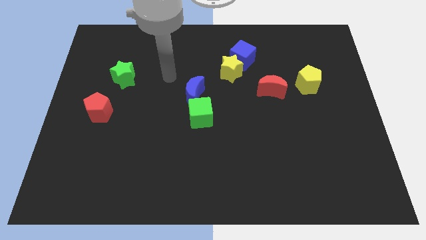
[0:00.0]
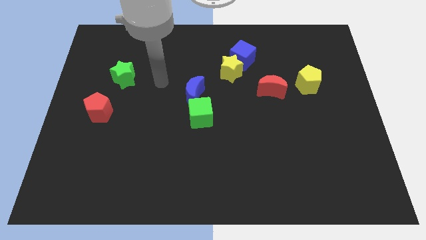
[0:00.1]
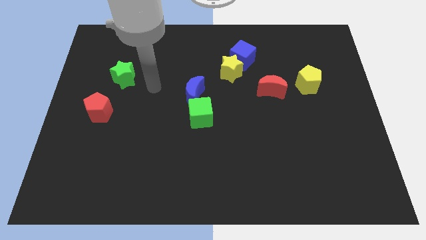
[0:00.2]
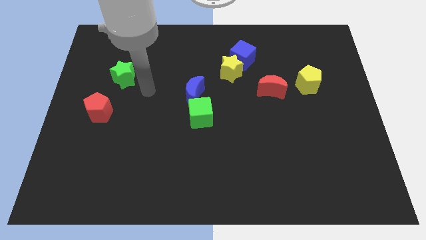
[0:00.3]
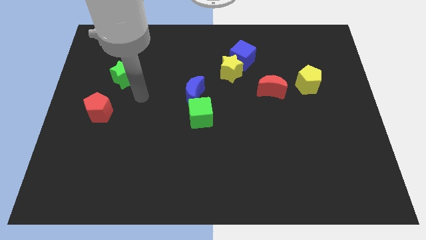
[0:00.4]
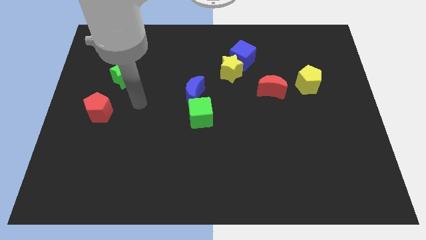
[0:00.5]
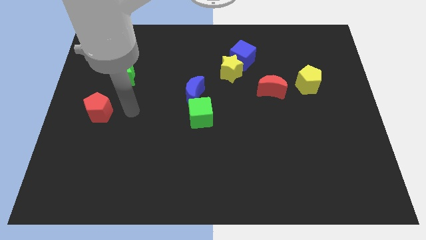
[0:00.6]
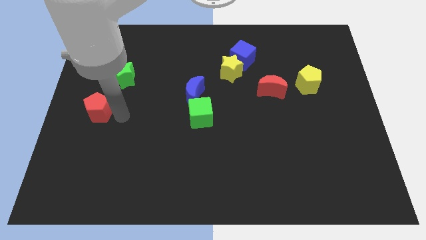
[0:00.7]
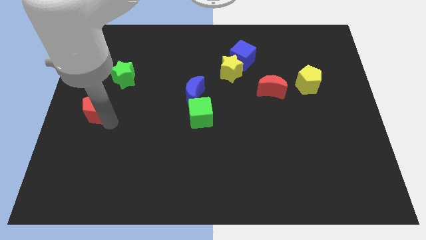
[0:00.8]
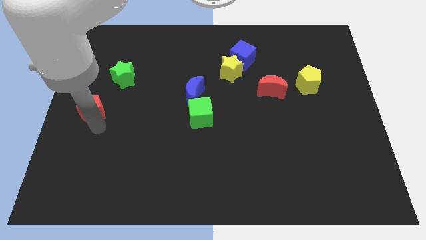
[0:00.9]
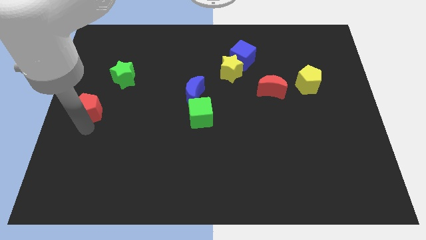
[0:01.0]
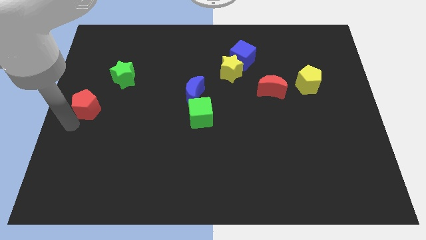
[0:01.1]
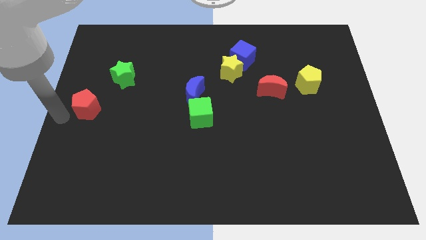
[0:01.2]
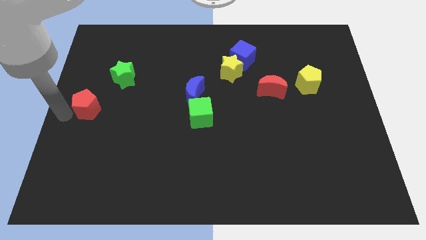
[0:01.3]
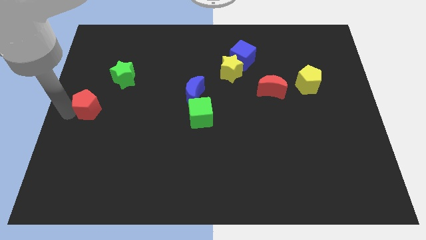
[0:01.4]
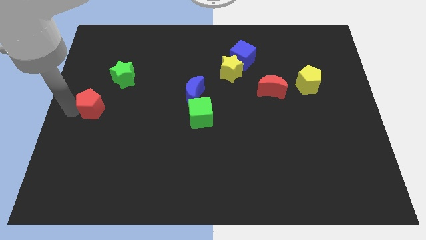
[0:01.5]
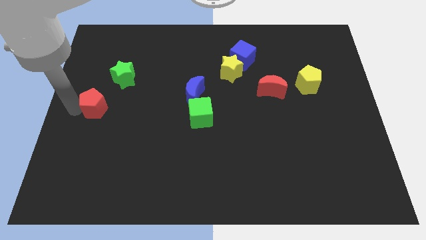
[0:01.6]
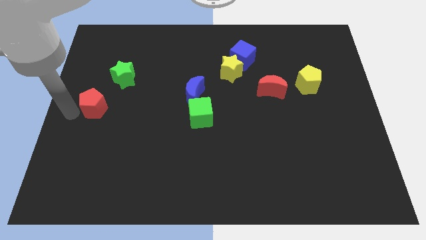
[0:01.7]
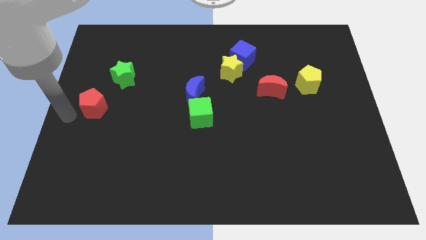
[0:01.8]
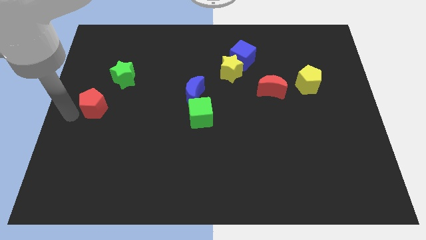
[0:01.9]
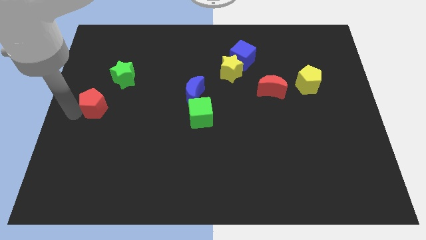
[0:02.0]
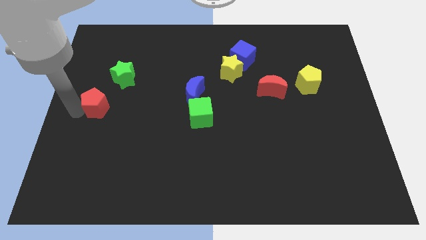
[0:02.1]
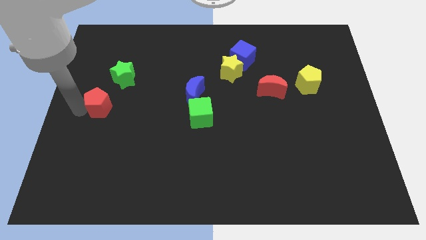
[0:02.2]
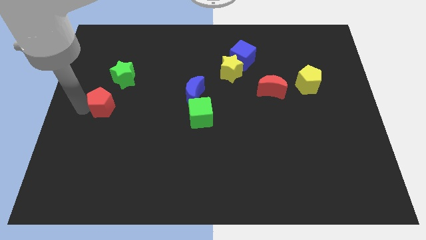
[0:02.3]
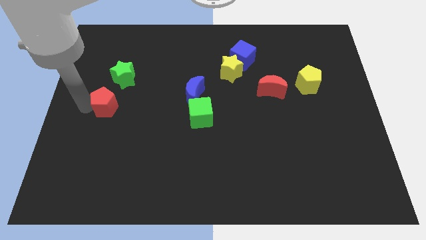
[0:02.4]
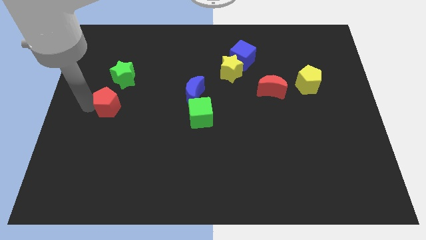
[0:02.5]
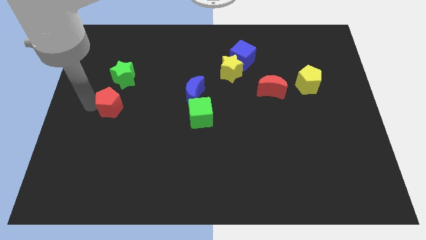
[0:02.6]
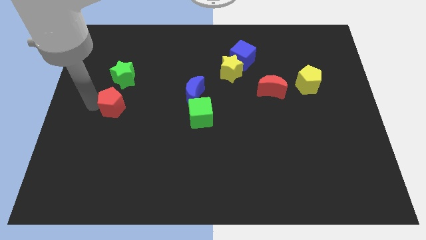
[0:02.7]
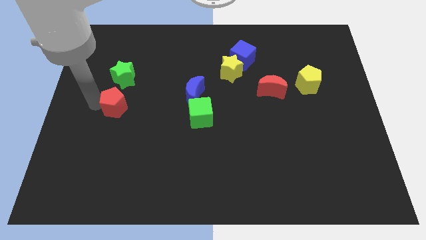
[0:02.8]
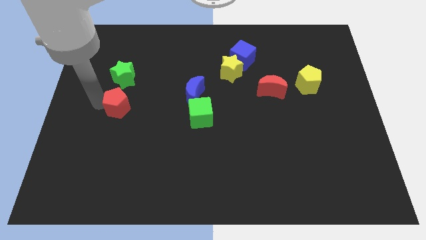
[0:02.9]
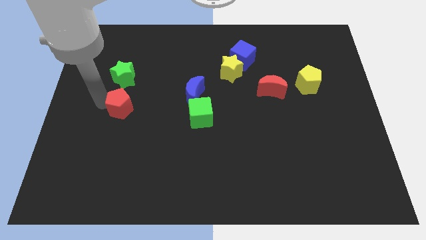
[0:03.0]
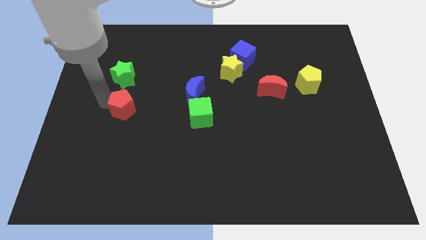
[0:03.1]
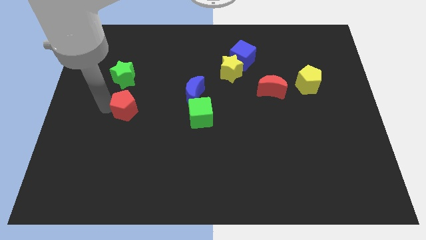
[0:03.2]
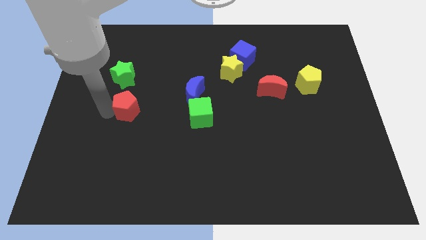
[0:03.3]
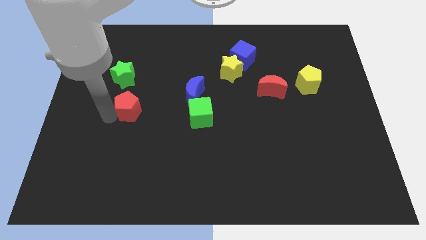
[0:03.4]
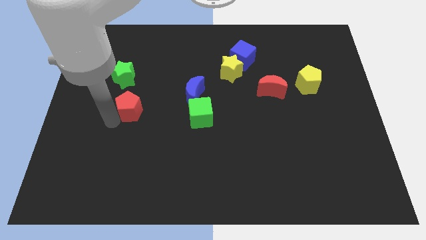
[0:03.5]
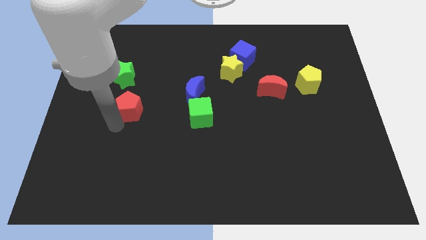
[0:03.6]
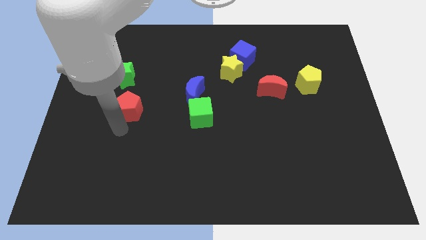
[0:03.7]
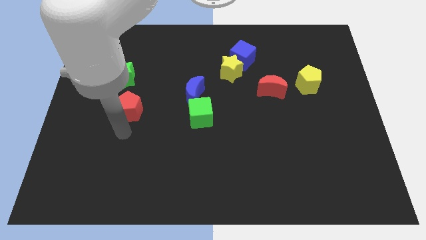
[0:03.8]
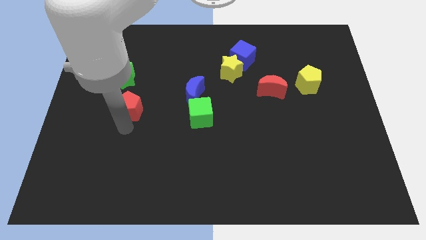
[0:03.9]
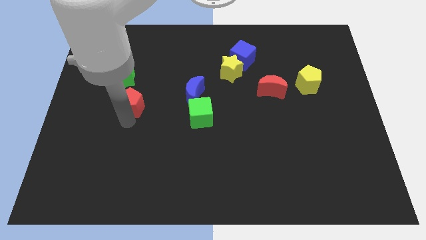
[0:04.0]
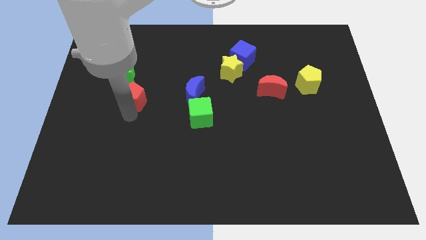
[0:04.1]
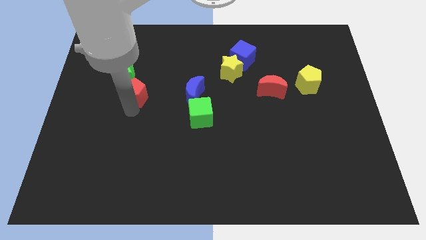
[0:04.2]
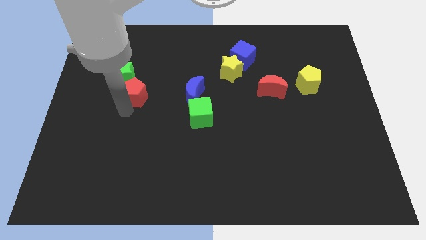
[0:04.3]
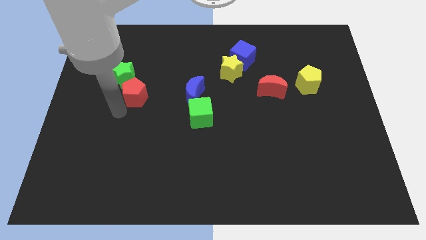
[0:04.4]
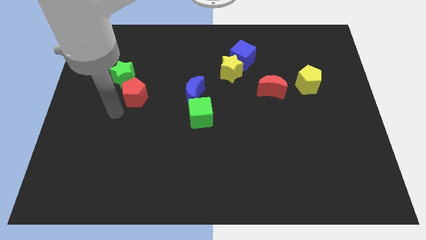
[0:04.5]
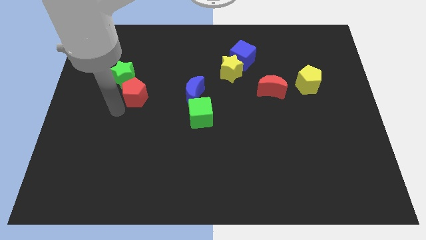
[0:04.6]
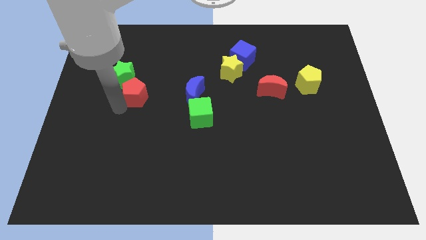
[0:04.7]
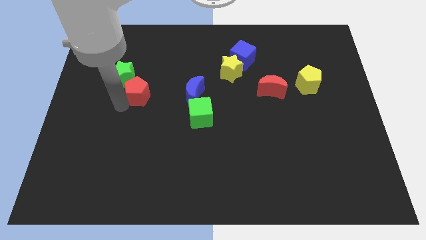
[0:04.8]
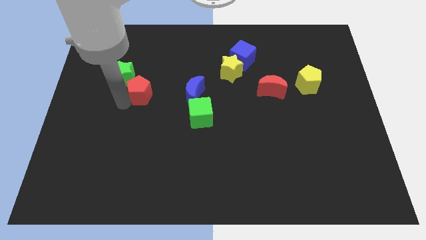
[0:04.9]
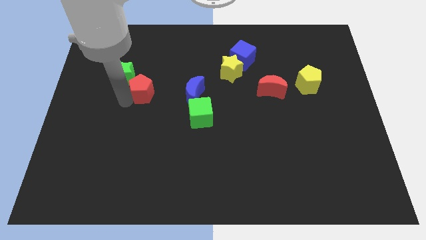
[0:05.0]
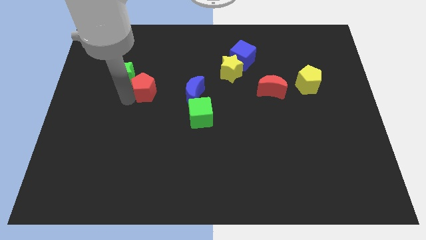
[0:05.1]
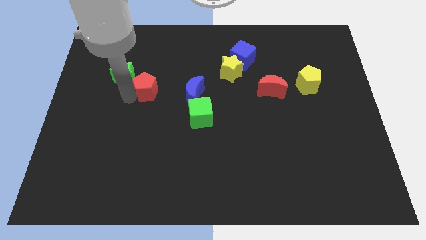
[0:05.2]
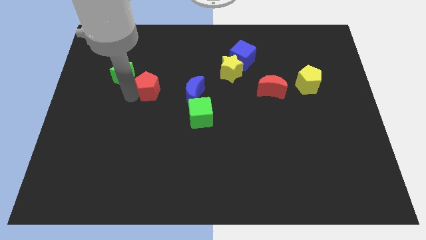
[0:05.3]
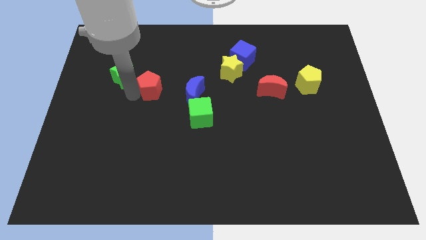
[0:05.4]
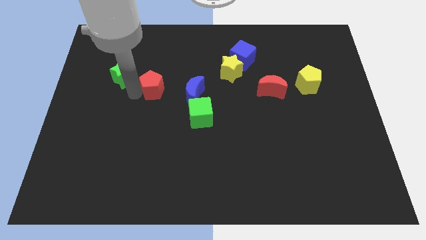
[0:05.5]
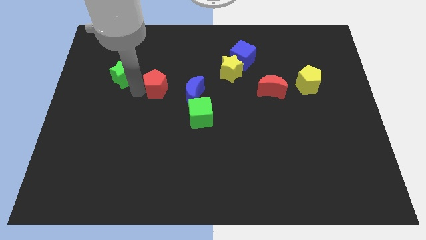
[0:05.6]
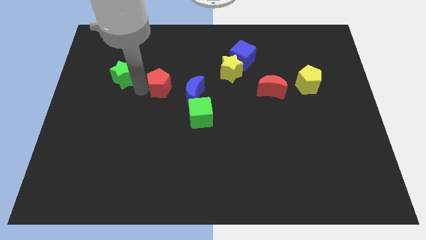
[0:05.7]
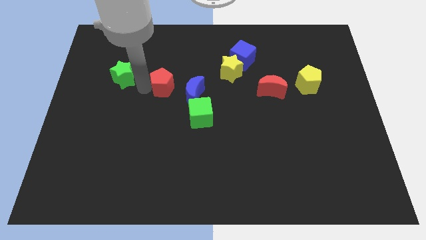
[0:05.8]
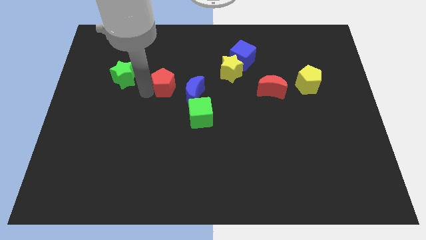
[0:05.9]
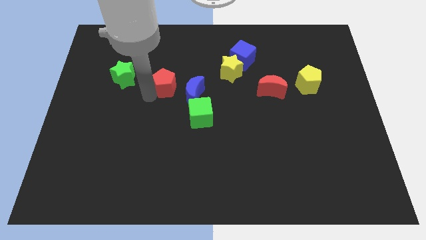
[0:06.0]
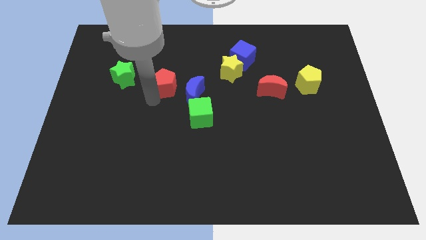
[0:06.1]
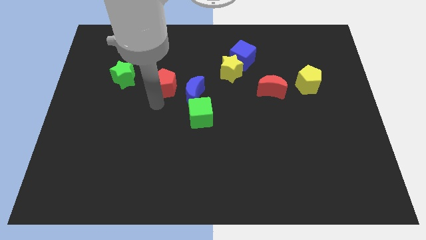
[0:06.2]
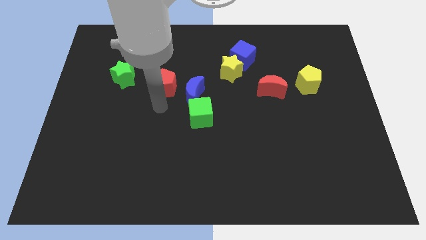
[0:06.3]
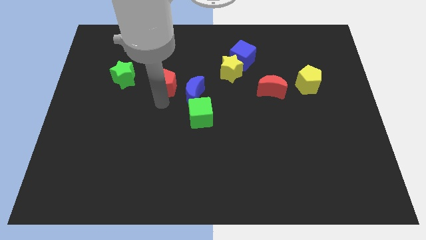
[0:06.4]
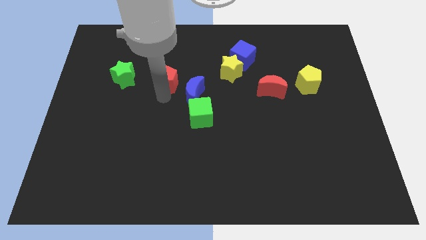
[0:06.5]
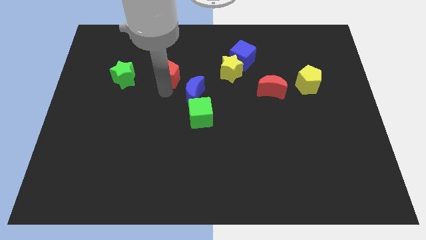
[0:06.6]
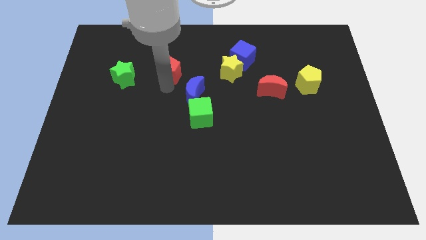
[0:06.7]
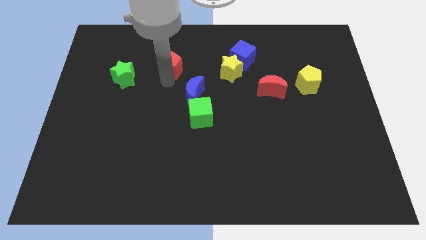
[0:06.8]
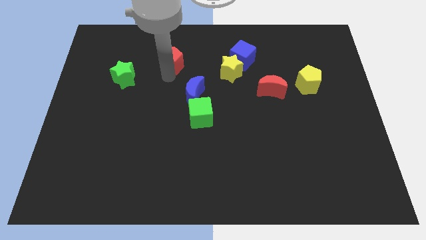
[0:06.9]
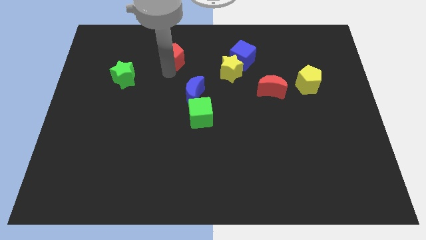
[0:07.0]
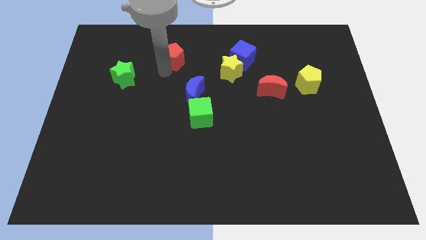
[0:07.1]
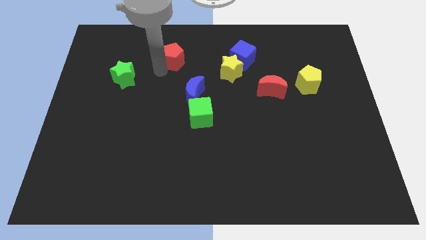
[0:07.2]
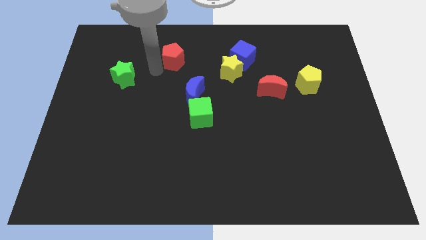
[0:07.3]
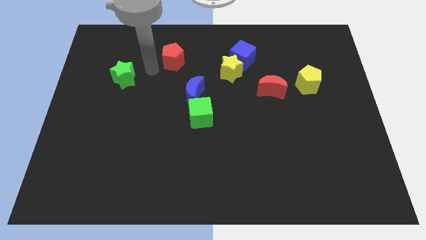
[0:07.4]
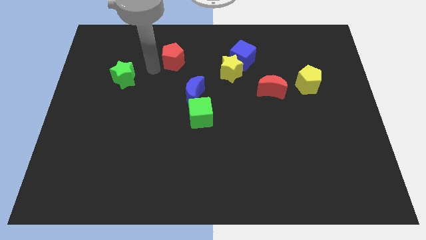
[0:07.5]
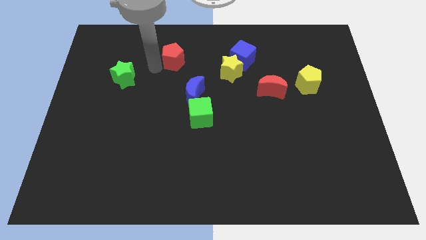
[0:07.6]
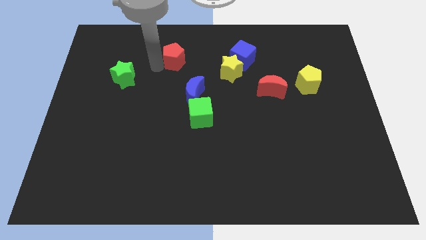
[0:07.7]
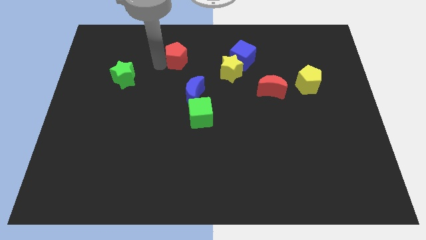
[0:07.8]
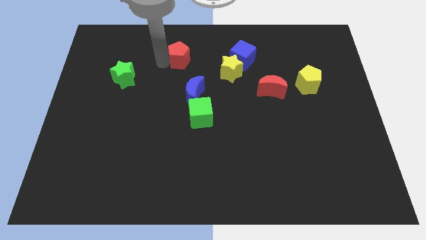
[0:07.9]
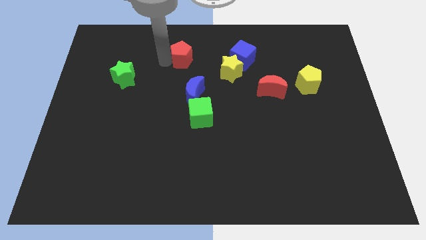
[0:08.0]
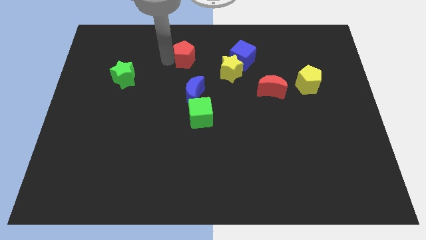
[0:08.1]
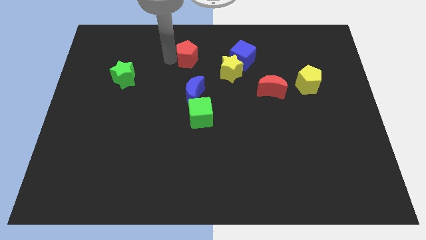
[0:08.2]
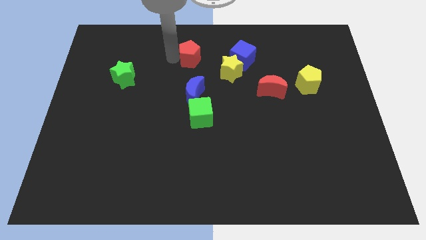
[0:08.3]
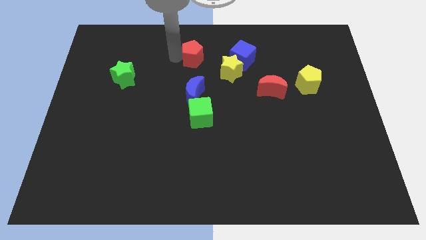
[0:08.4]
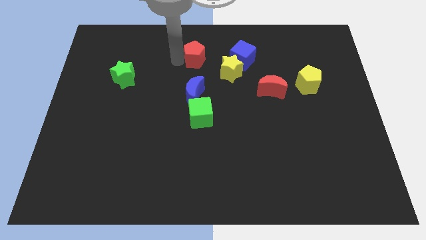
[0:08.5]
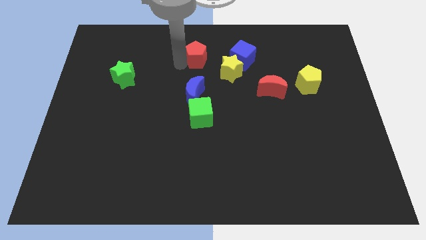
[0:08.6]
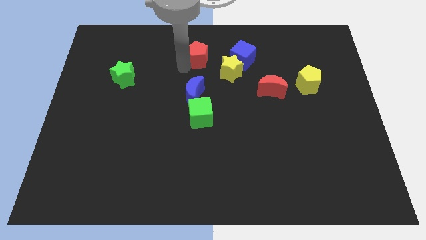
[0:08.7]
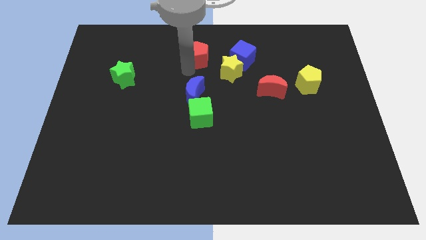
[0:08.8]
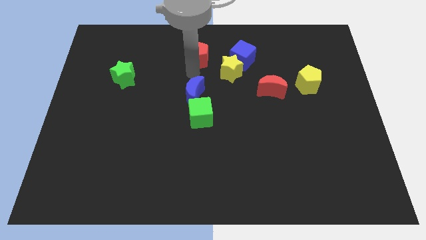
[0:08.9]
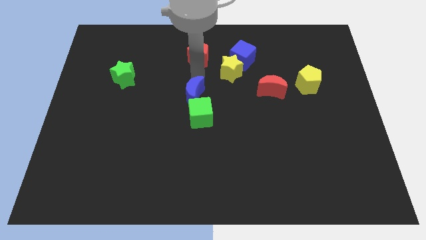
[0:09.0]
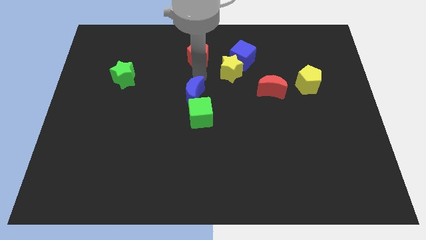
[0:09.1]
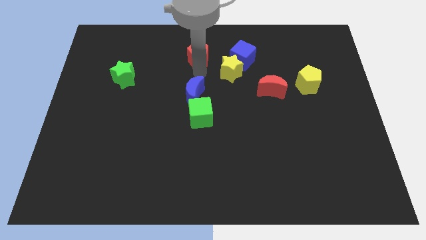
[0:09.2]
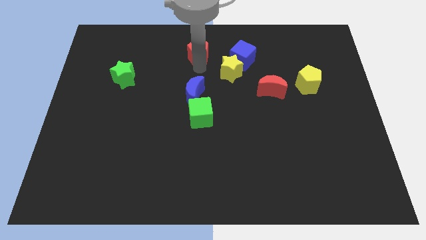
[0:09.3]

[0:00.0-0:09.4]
push the red pentagon to the towards your base
